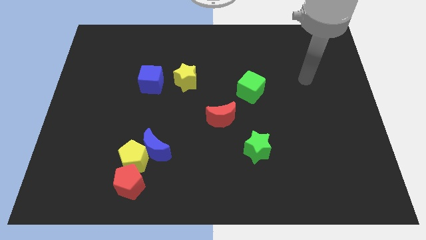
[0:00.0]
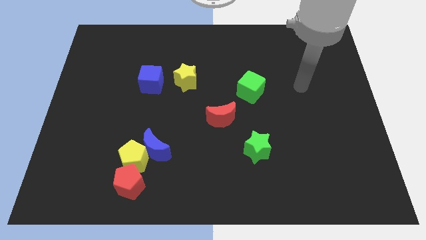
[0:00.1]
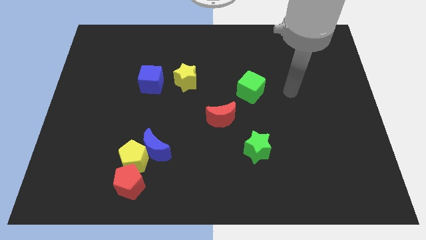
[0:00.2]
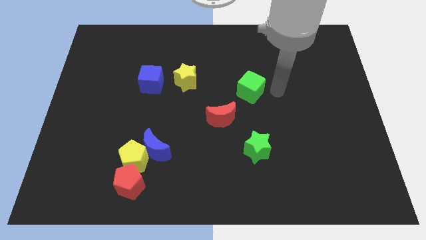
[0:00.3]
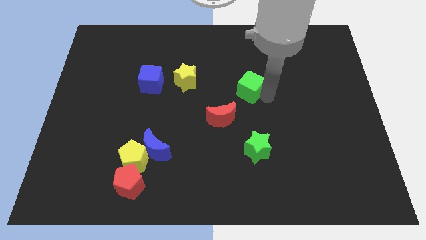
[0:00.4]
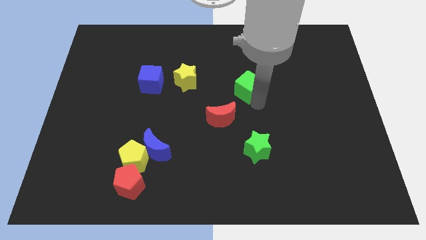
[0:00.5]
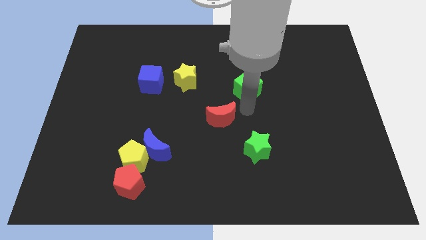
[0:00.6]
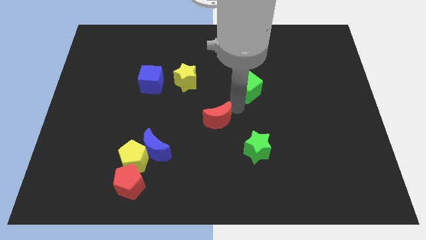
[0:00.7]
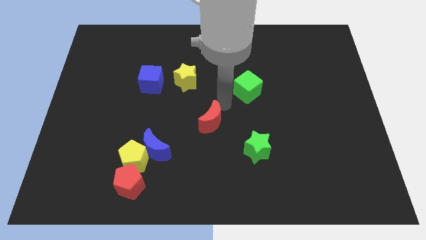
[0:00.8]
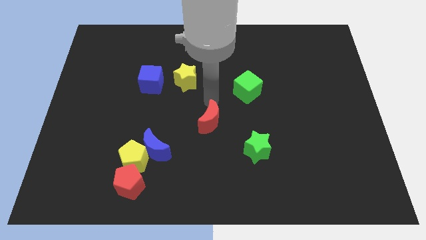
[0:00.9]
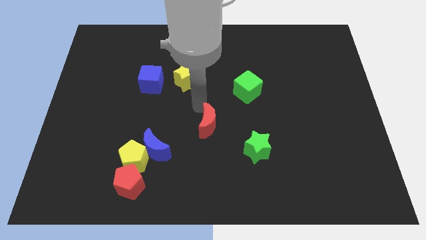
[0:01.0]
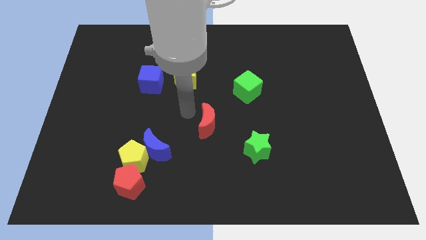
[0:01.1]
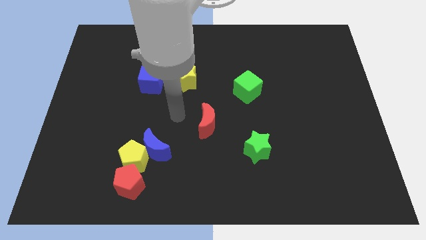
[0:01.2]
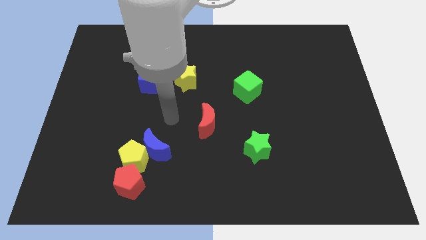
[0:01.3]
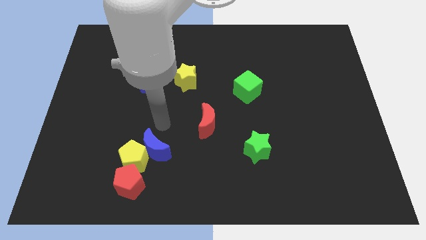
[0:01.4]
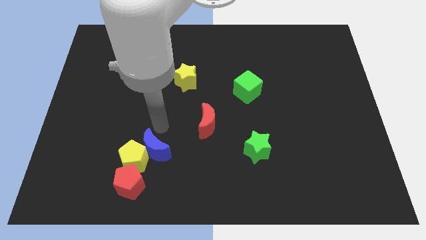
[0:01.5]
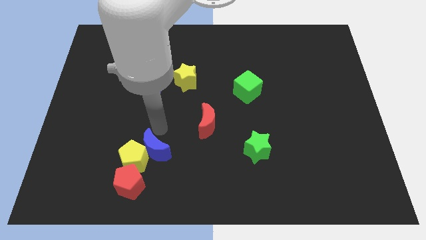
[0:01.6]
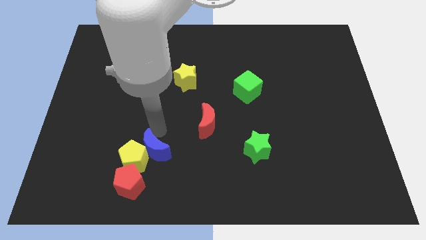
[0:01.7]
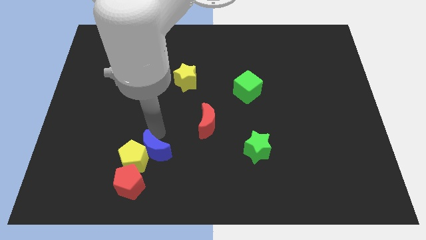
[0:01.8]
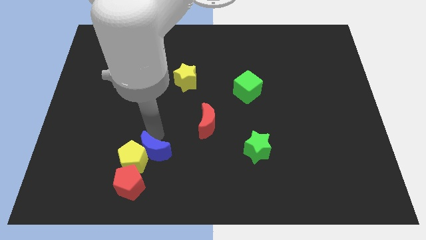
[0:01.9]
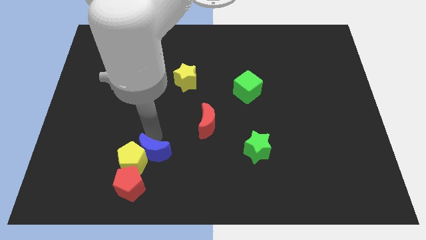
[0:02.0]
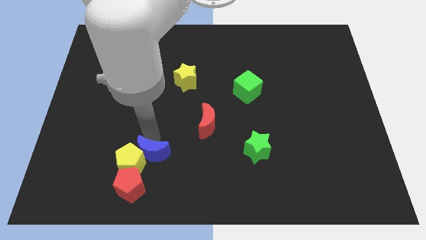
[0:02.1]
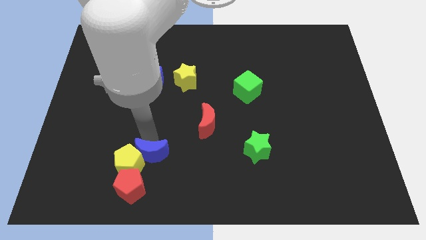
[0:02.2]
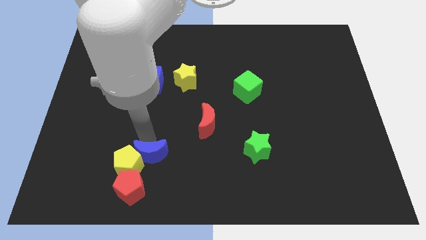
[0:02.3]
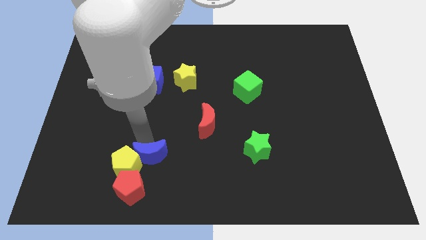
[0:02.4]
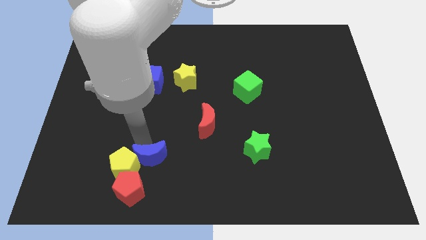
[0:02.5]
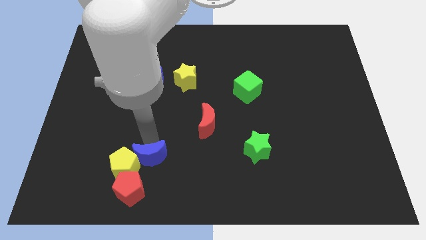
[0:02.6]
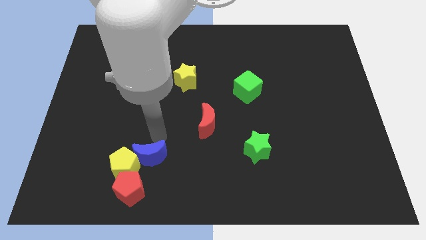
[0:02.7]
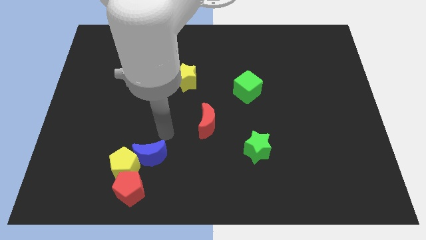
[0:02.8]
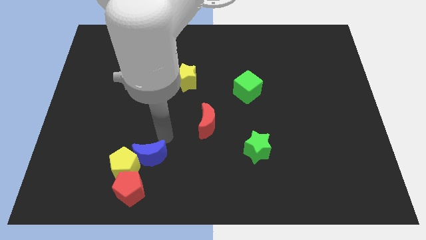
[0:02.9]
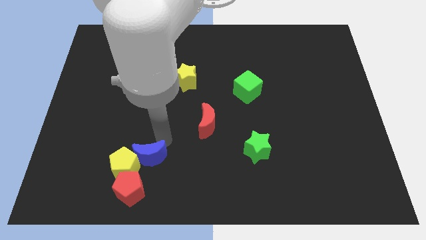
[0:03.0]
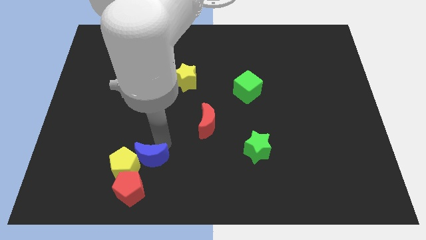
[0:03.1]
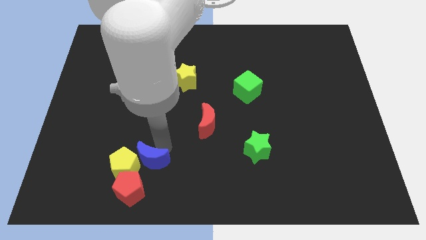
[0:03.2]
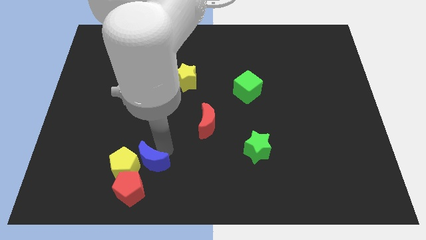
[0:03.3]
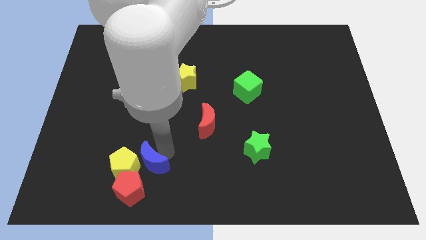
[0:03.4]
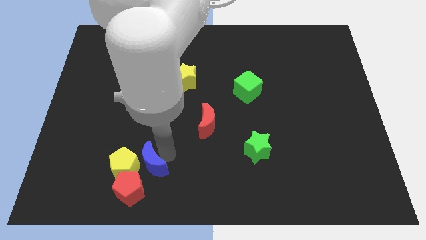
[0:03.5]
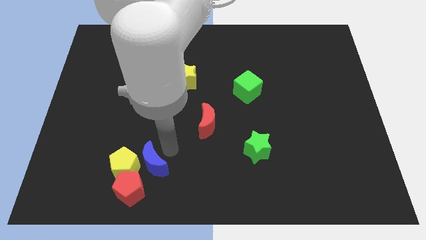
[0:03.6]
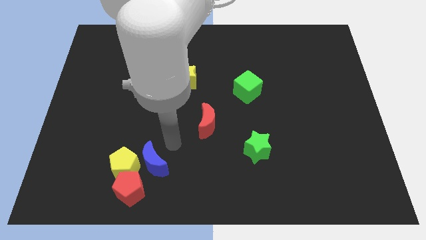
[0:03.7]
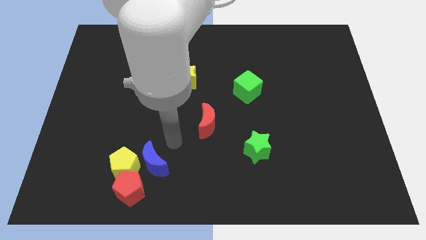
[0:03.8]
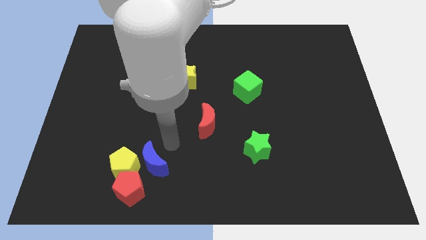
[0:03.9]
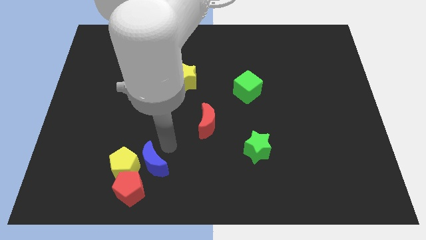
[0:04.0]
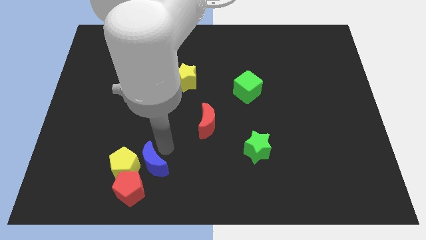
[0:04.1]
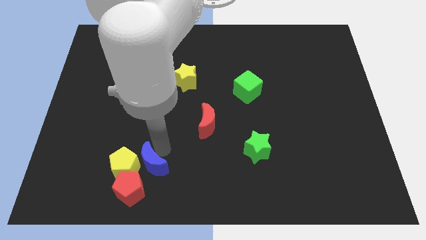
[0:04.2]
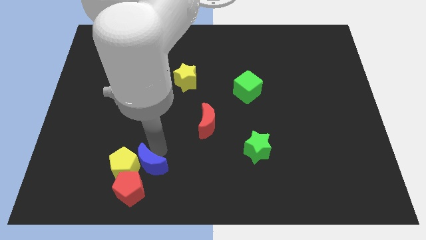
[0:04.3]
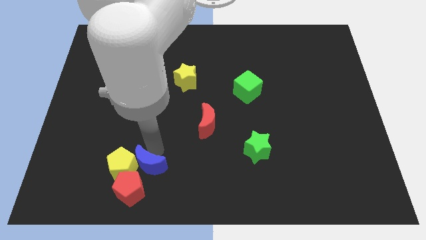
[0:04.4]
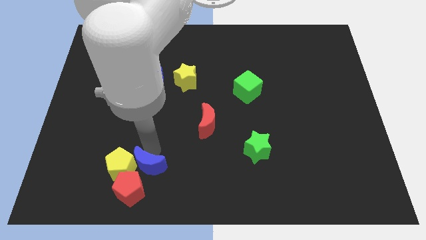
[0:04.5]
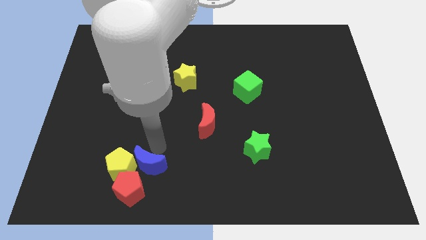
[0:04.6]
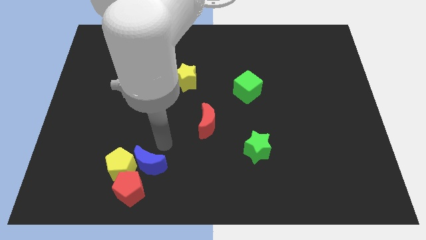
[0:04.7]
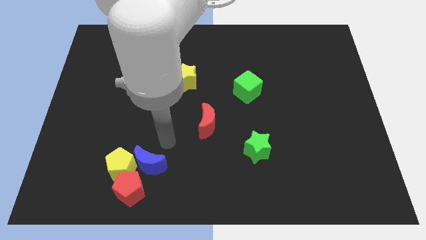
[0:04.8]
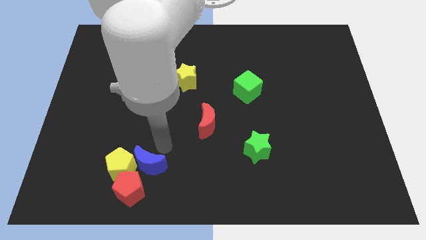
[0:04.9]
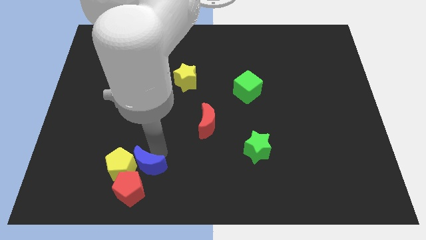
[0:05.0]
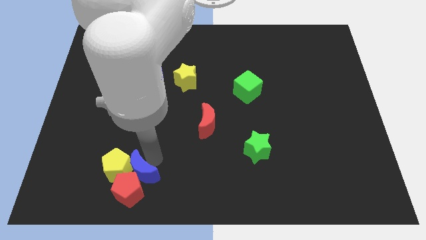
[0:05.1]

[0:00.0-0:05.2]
put the blue moon close to the red pentagon

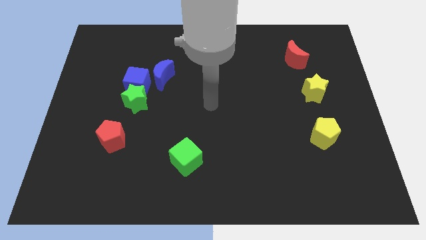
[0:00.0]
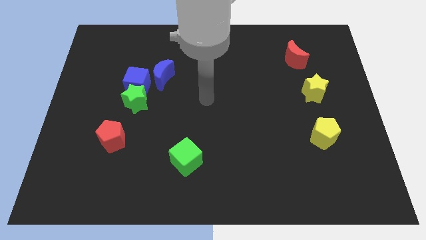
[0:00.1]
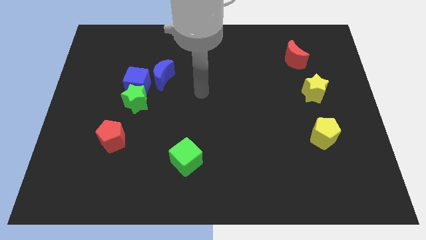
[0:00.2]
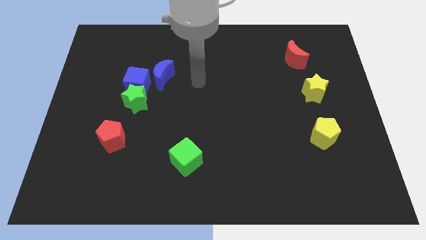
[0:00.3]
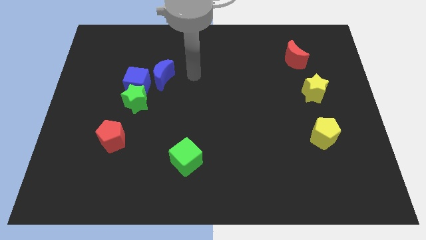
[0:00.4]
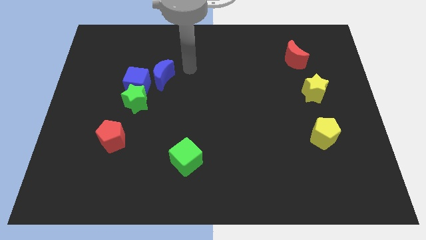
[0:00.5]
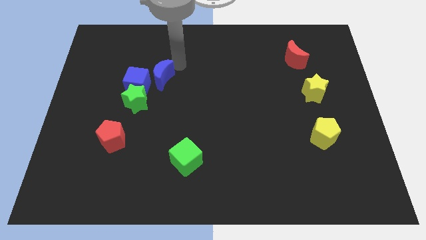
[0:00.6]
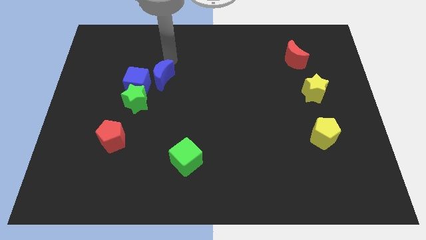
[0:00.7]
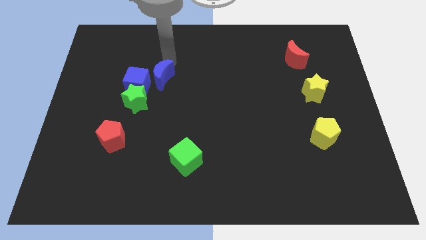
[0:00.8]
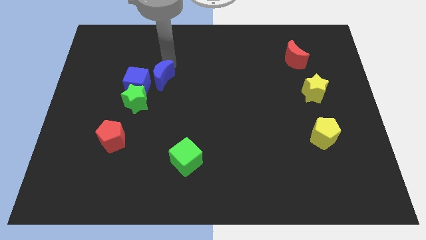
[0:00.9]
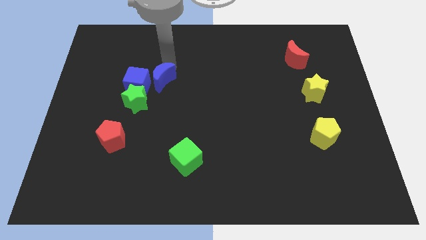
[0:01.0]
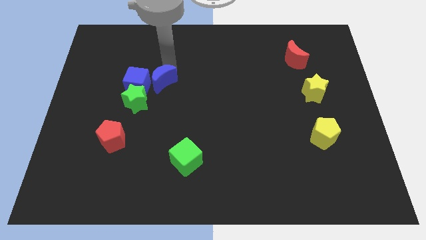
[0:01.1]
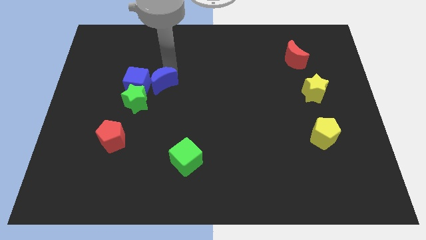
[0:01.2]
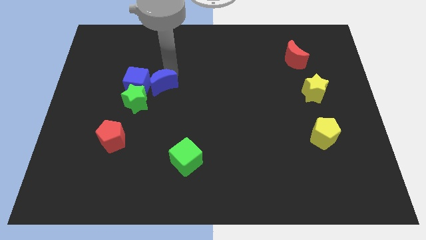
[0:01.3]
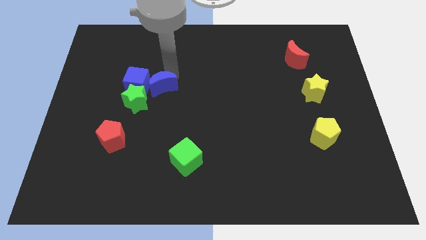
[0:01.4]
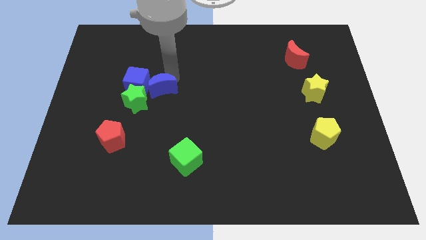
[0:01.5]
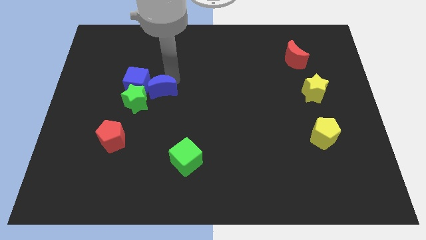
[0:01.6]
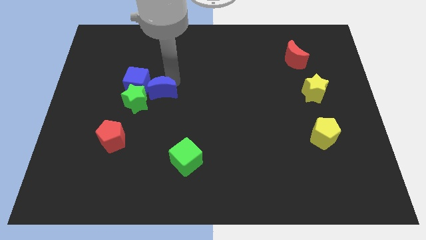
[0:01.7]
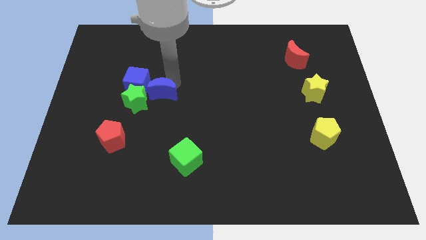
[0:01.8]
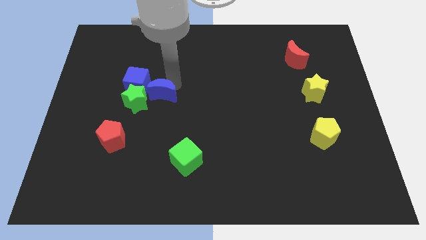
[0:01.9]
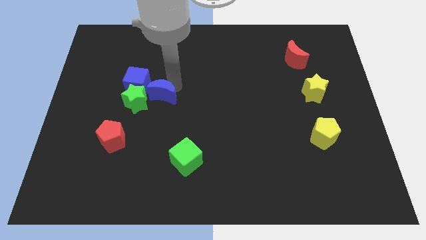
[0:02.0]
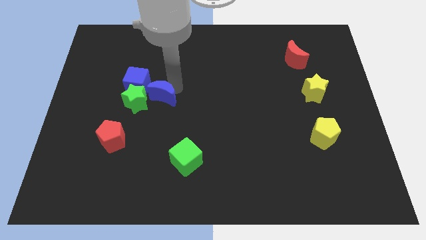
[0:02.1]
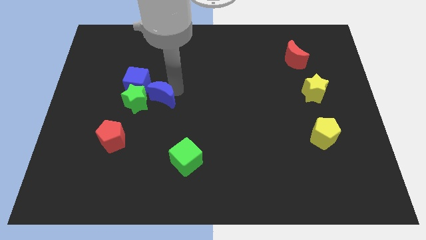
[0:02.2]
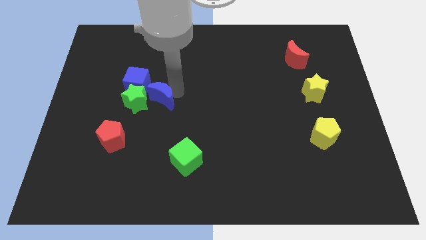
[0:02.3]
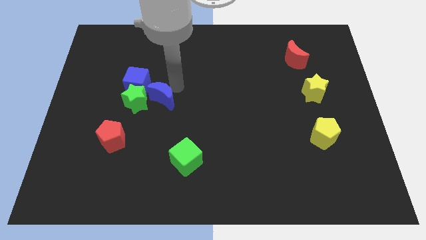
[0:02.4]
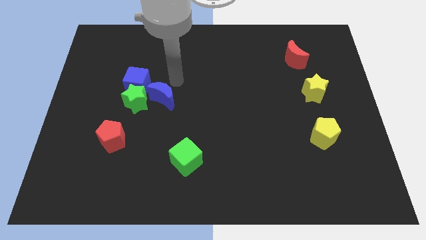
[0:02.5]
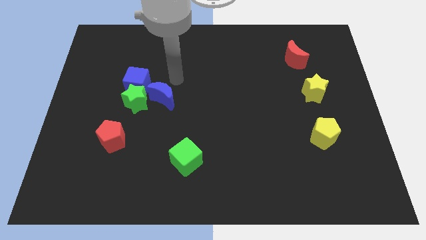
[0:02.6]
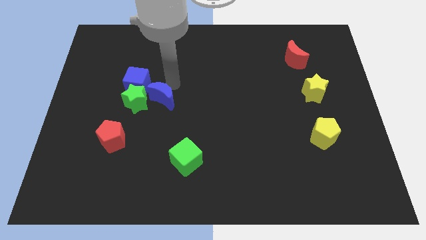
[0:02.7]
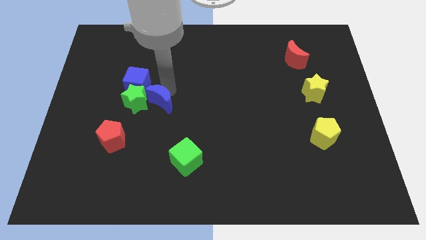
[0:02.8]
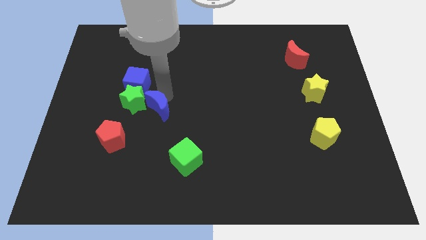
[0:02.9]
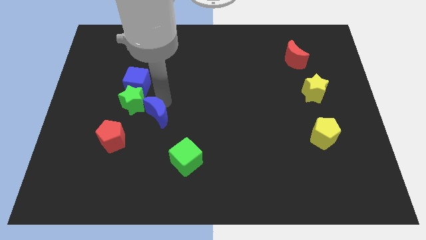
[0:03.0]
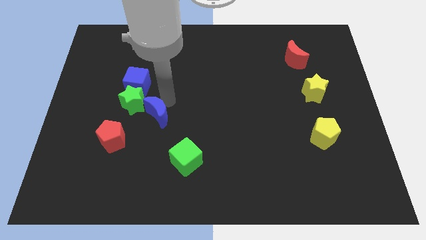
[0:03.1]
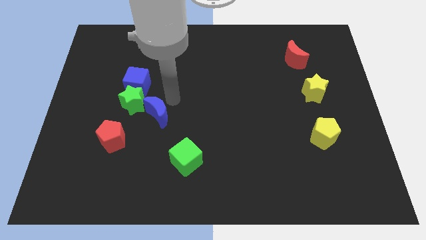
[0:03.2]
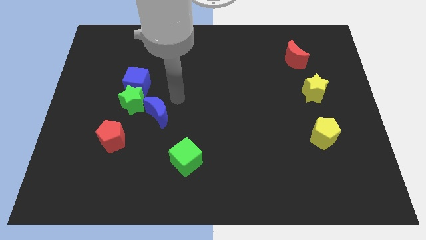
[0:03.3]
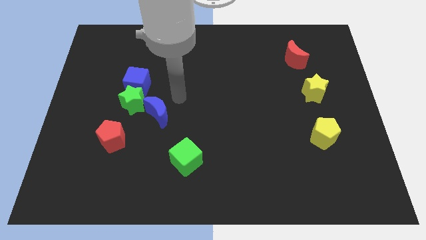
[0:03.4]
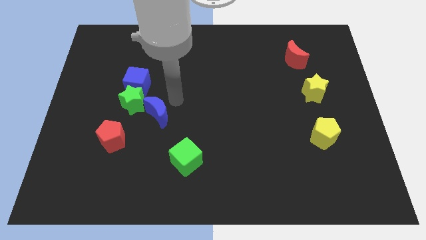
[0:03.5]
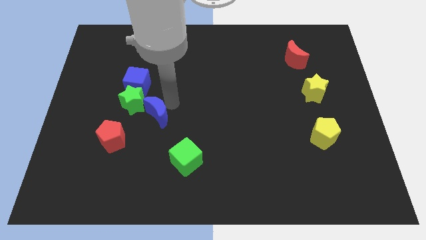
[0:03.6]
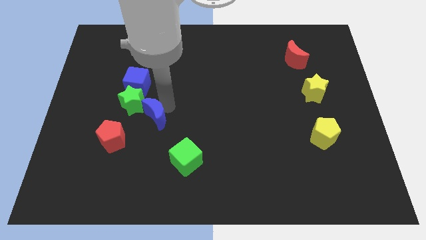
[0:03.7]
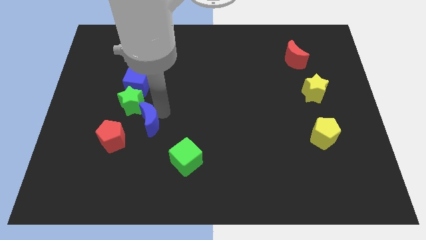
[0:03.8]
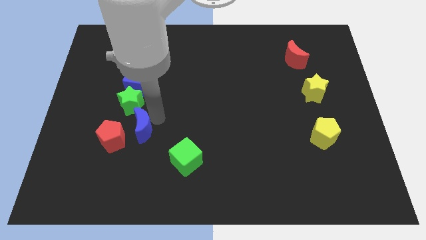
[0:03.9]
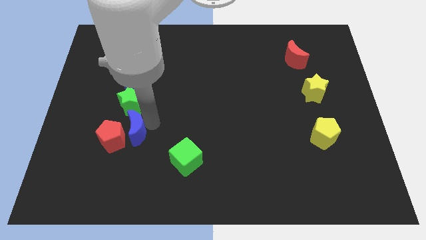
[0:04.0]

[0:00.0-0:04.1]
slide the blue moon next to the red pentagon
